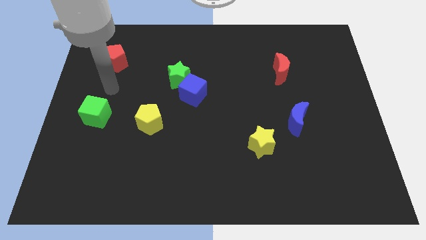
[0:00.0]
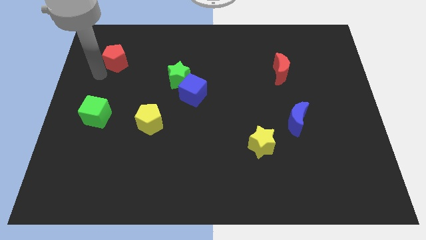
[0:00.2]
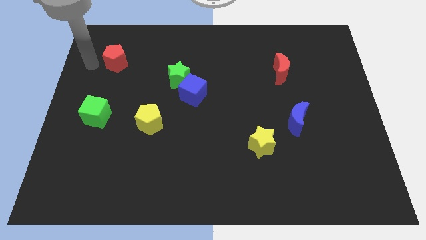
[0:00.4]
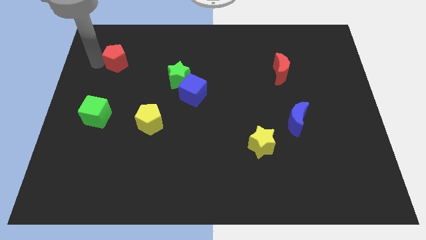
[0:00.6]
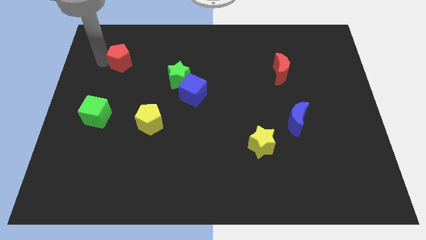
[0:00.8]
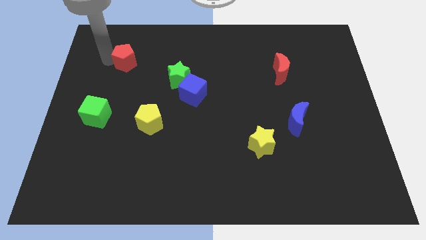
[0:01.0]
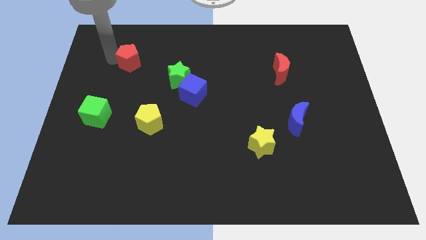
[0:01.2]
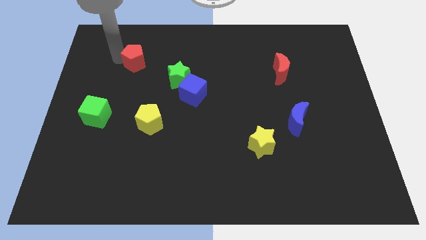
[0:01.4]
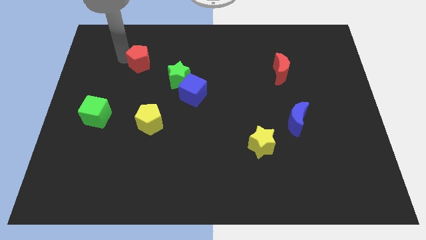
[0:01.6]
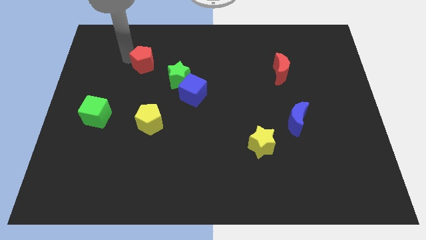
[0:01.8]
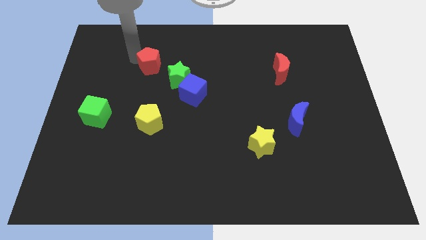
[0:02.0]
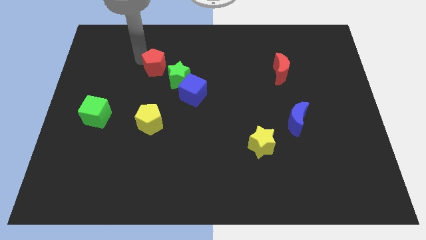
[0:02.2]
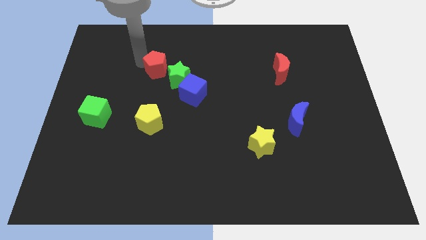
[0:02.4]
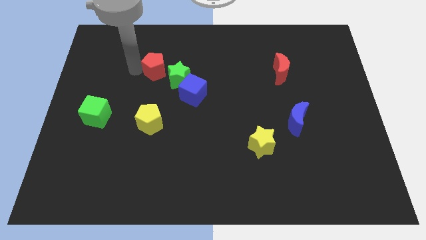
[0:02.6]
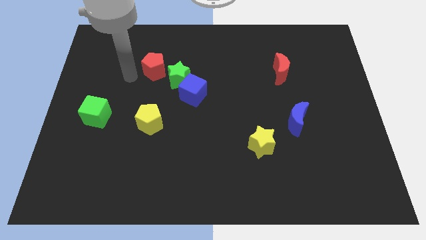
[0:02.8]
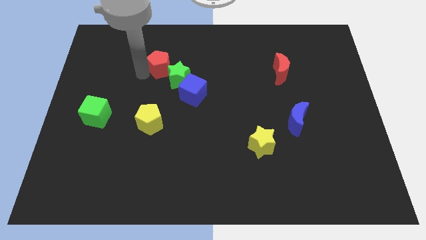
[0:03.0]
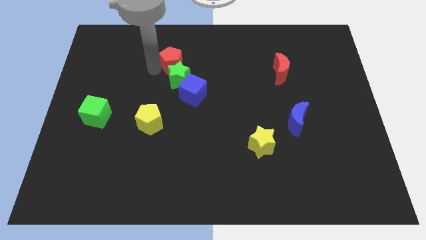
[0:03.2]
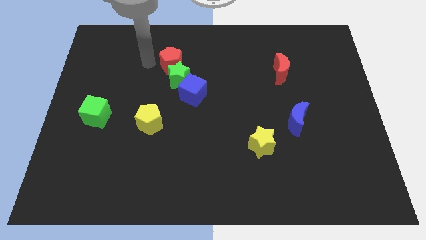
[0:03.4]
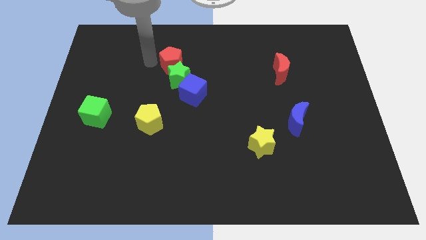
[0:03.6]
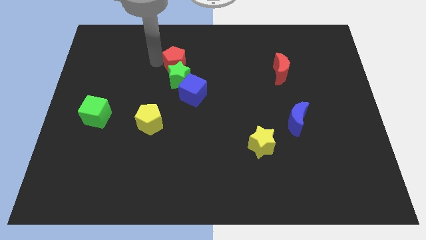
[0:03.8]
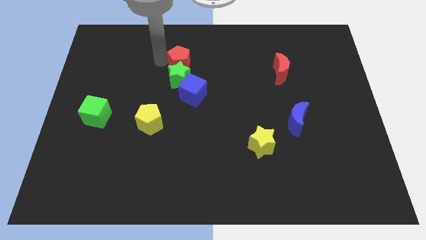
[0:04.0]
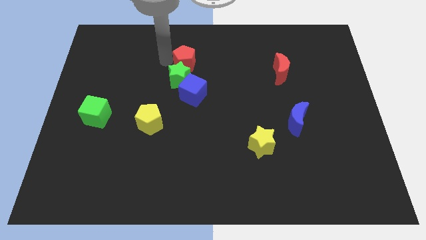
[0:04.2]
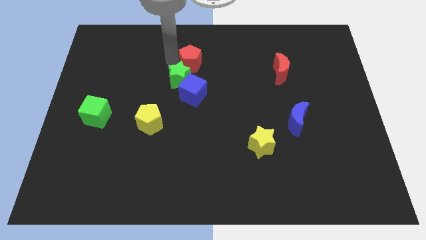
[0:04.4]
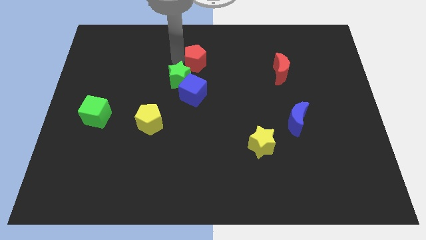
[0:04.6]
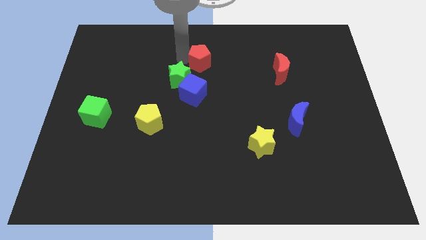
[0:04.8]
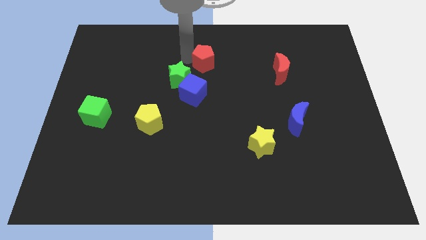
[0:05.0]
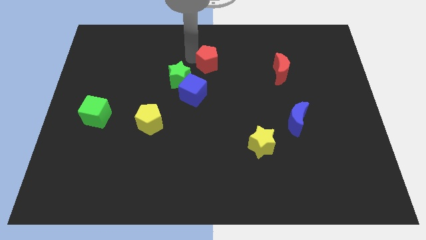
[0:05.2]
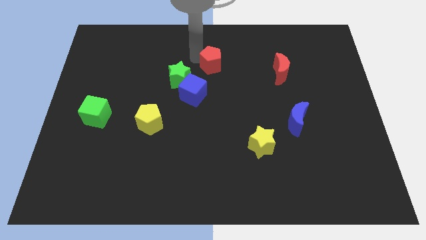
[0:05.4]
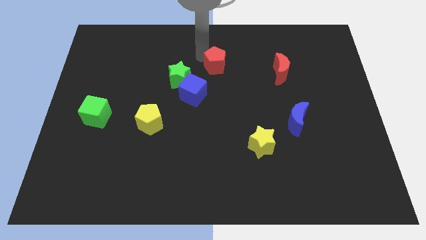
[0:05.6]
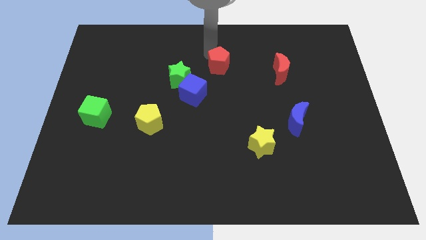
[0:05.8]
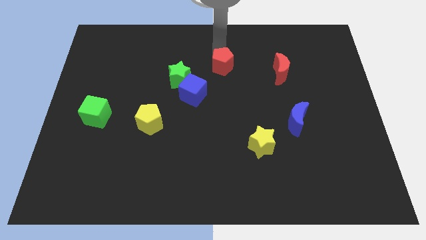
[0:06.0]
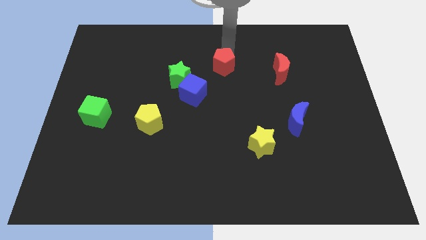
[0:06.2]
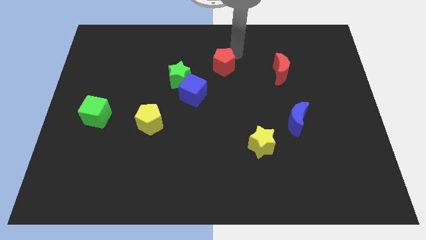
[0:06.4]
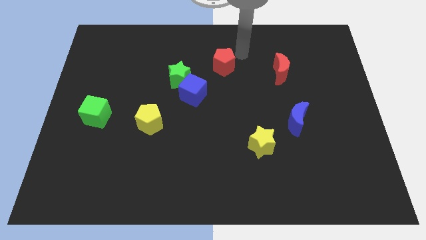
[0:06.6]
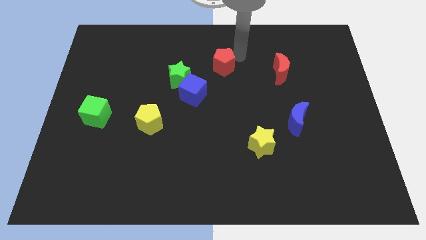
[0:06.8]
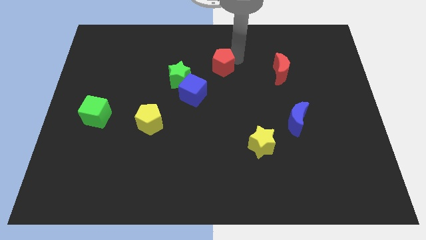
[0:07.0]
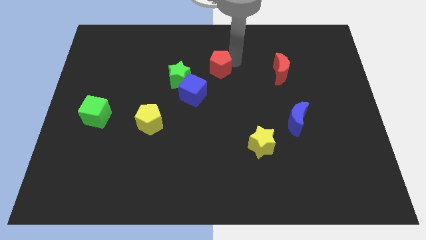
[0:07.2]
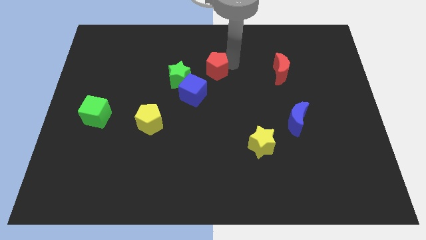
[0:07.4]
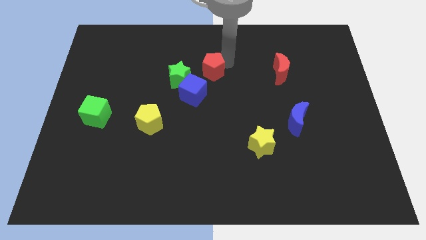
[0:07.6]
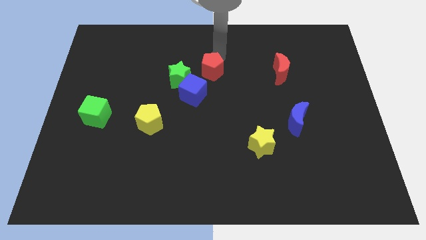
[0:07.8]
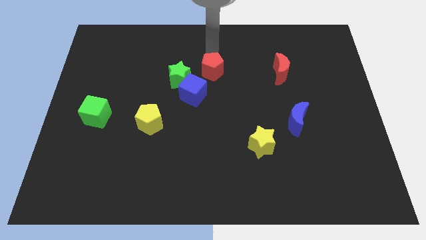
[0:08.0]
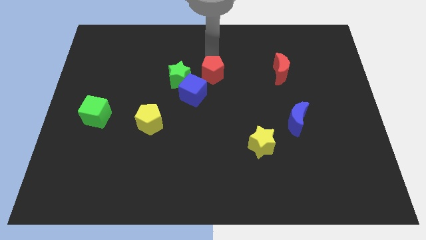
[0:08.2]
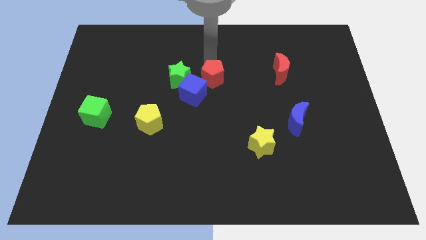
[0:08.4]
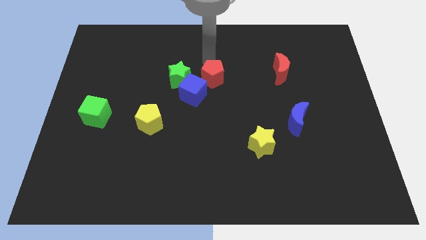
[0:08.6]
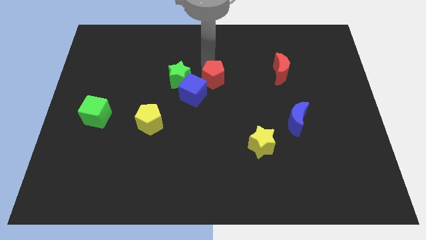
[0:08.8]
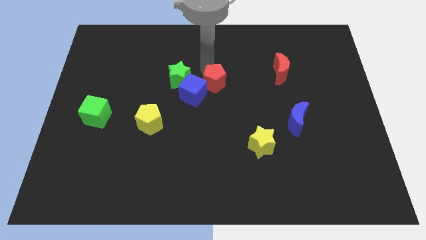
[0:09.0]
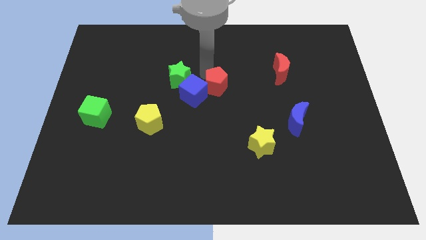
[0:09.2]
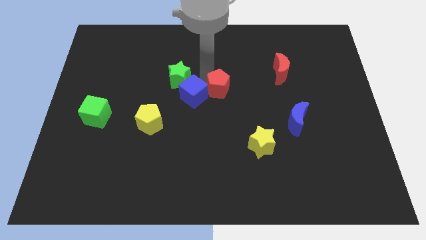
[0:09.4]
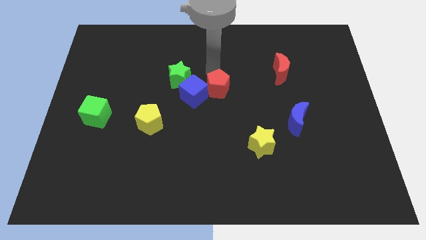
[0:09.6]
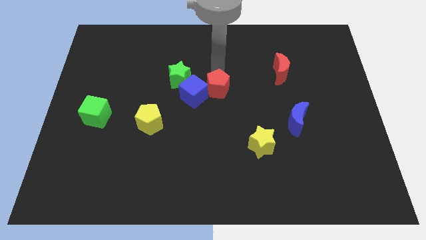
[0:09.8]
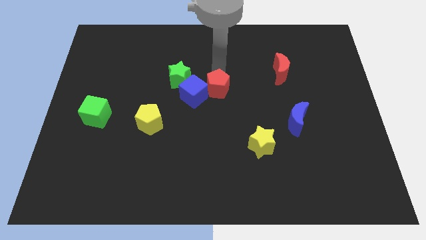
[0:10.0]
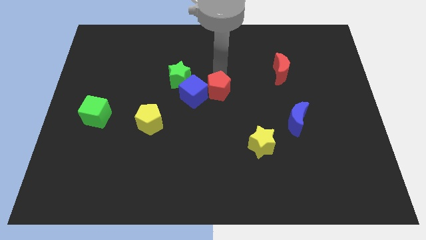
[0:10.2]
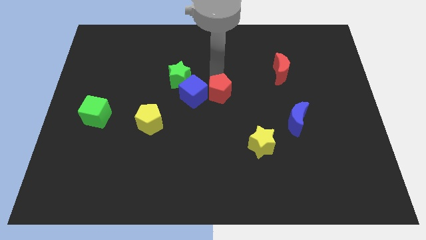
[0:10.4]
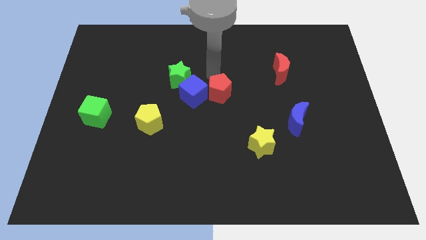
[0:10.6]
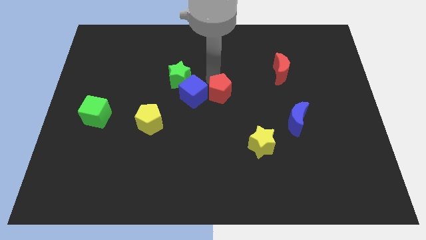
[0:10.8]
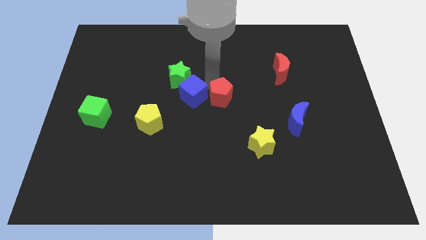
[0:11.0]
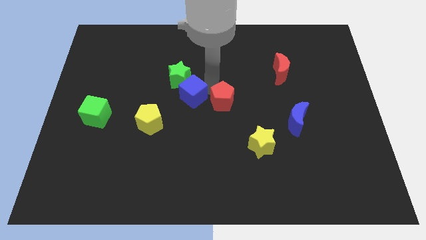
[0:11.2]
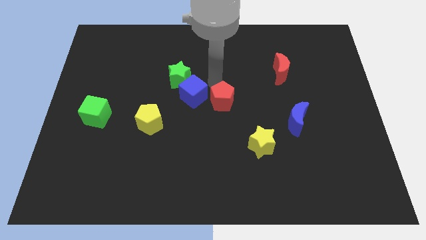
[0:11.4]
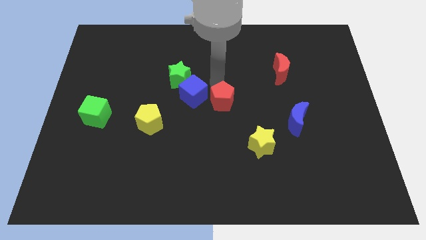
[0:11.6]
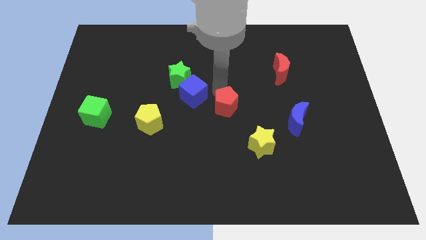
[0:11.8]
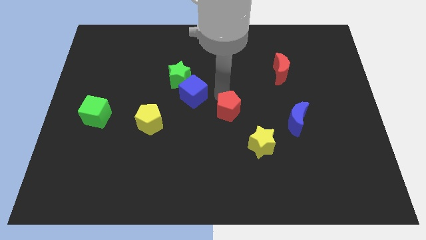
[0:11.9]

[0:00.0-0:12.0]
move the red pentagon to the top left side of the yellow star

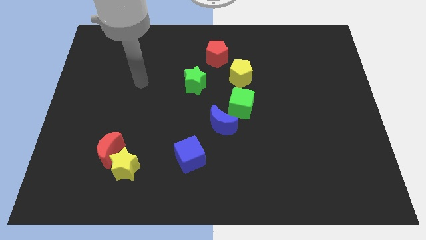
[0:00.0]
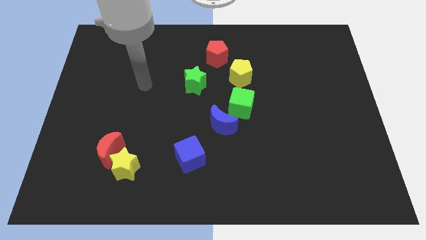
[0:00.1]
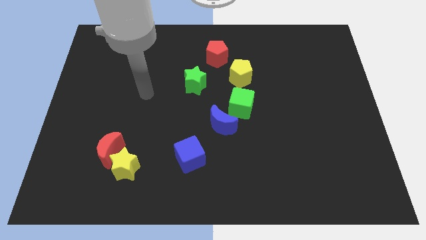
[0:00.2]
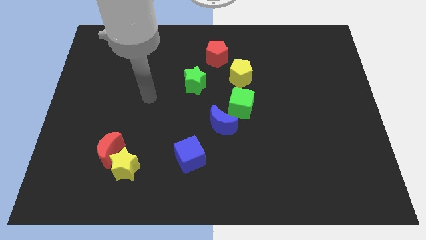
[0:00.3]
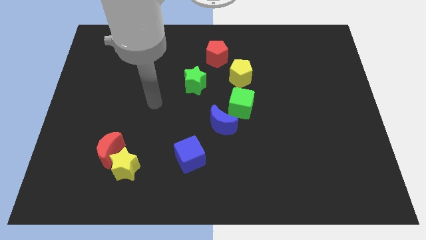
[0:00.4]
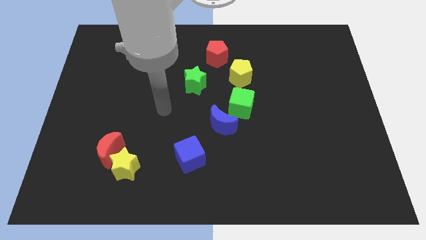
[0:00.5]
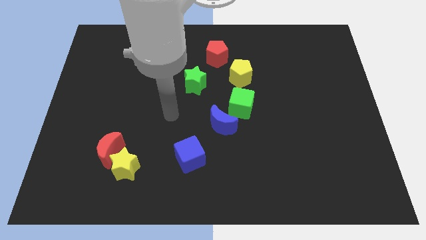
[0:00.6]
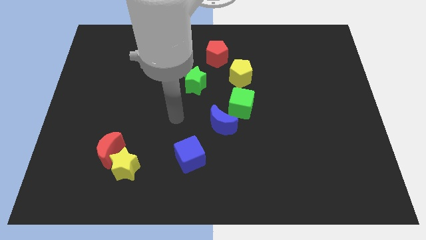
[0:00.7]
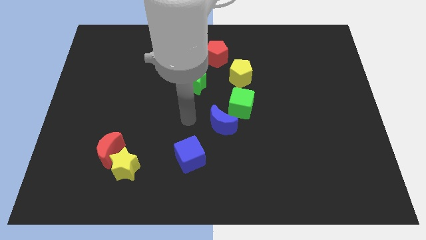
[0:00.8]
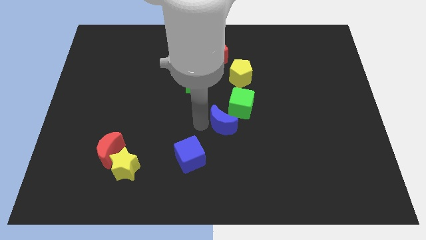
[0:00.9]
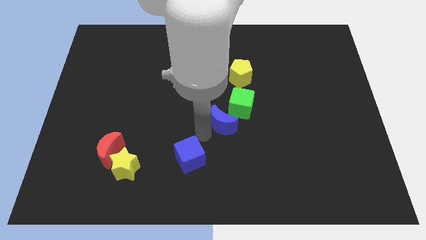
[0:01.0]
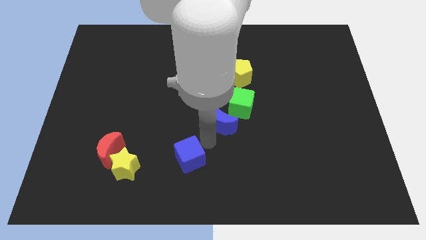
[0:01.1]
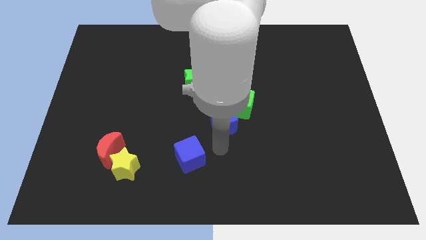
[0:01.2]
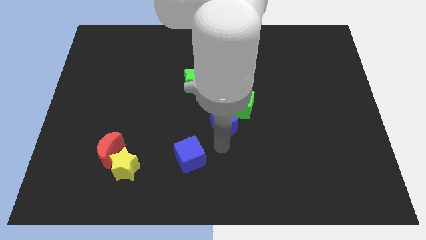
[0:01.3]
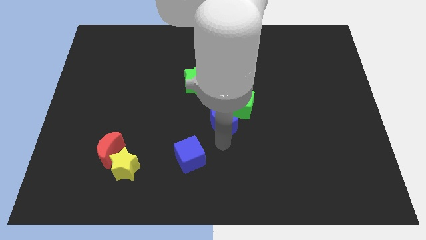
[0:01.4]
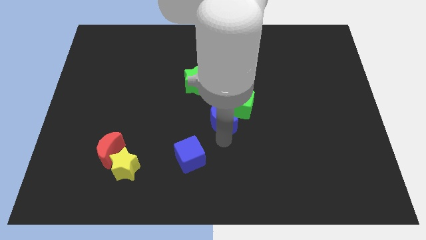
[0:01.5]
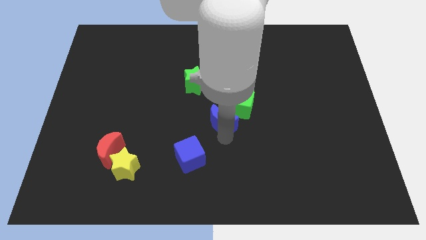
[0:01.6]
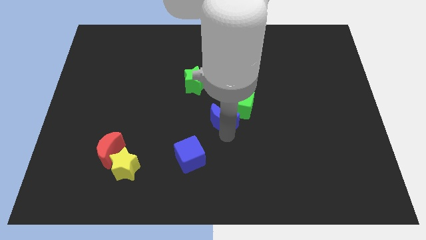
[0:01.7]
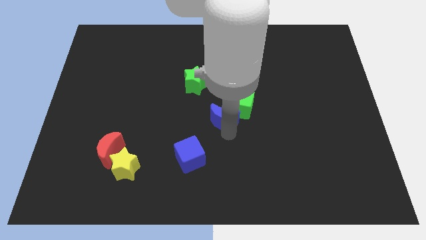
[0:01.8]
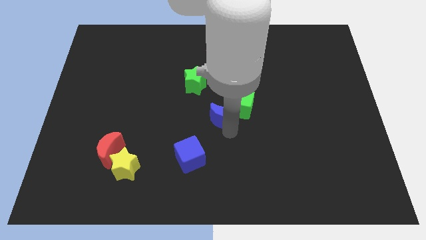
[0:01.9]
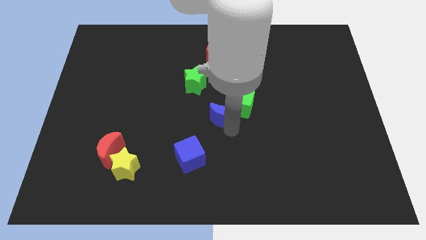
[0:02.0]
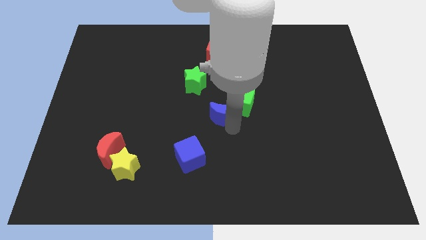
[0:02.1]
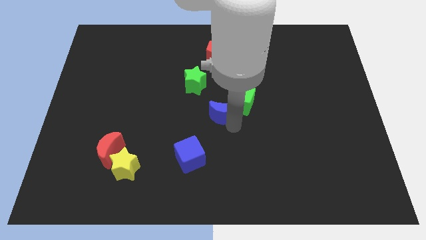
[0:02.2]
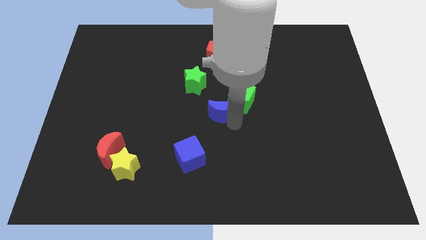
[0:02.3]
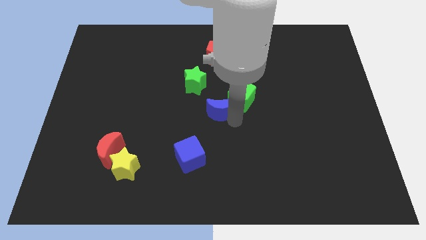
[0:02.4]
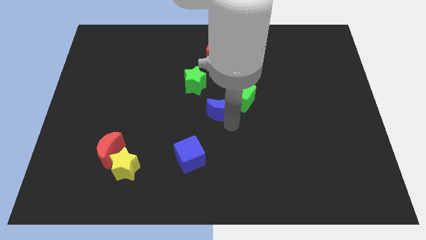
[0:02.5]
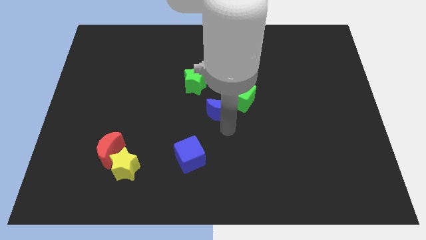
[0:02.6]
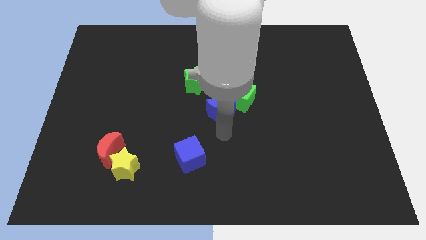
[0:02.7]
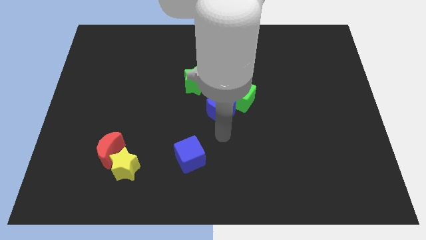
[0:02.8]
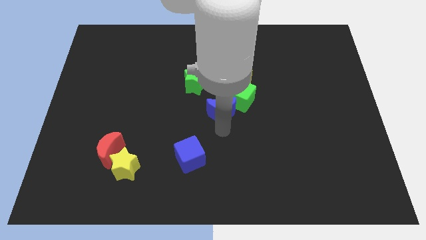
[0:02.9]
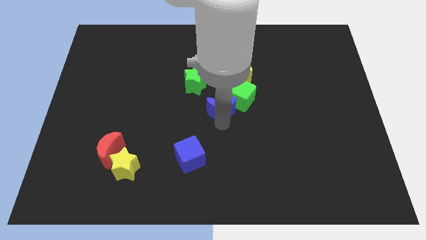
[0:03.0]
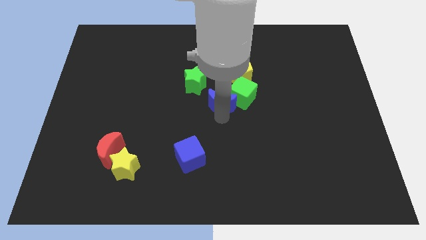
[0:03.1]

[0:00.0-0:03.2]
push the blue moon diagonally down and to the left of the yellow pentagon
